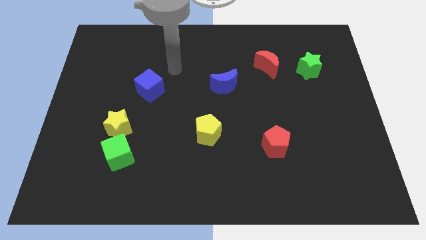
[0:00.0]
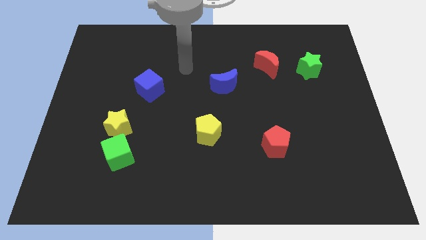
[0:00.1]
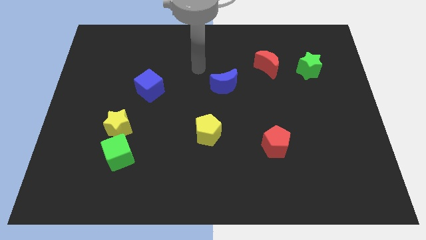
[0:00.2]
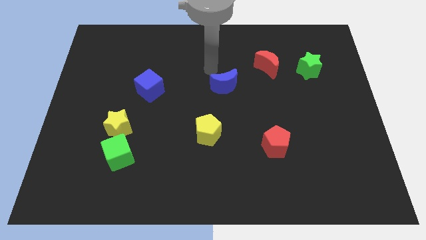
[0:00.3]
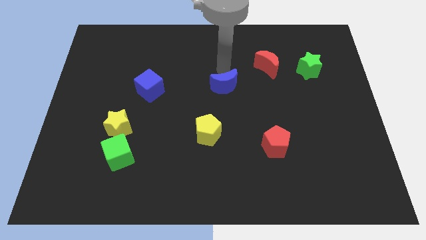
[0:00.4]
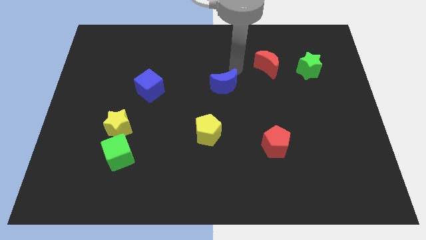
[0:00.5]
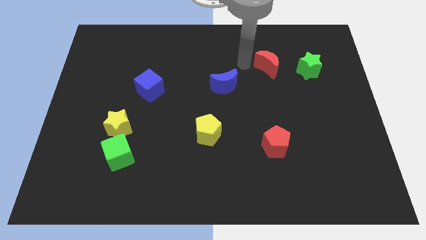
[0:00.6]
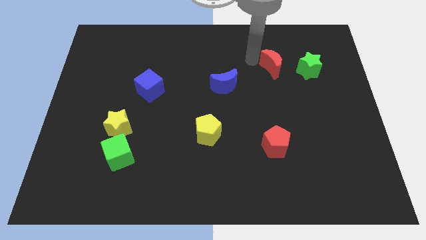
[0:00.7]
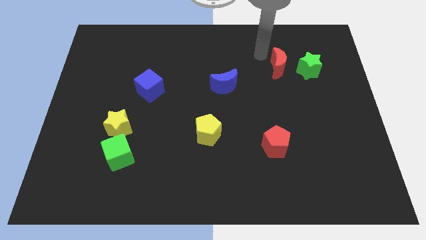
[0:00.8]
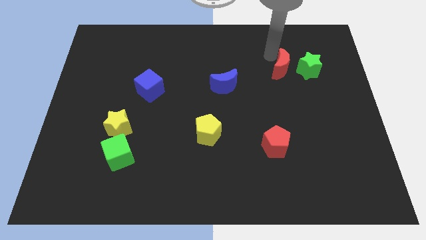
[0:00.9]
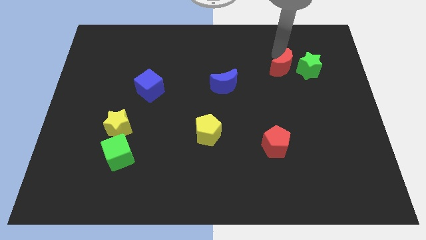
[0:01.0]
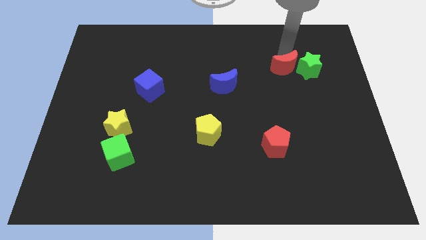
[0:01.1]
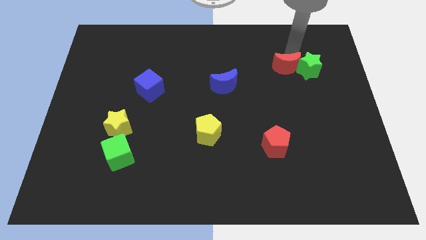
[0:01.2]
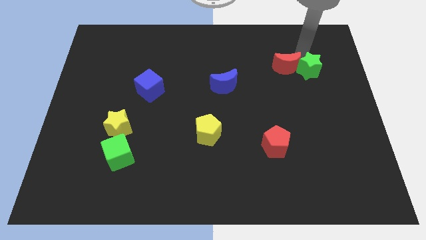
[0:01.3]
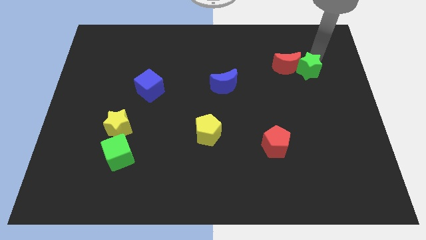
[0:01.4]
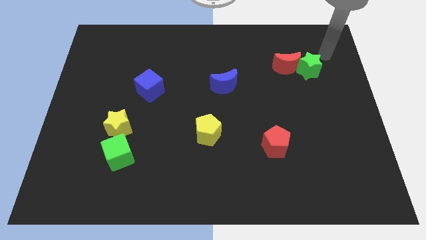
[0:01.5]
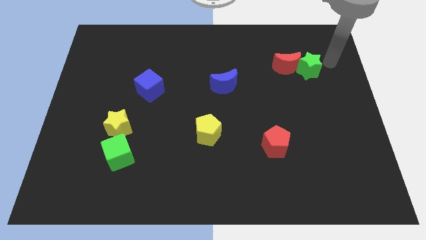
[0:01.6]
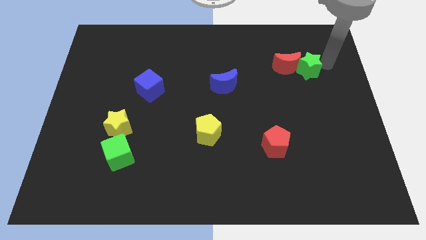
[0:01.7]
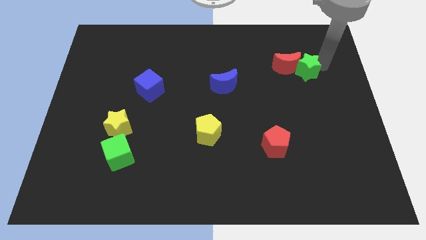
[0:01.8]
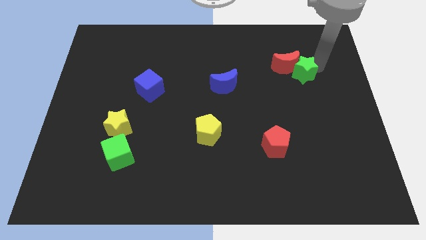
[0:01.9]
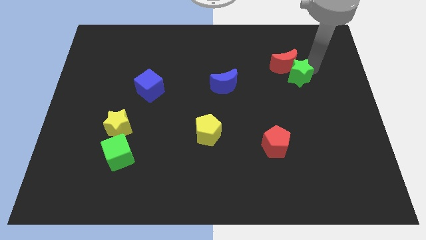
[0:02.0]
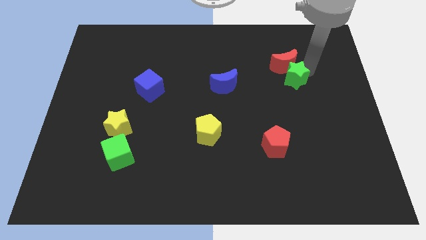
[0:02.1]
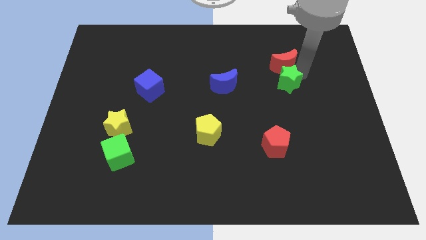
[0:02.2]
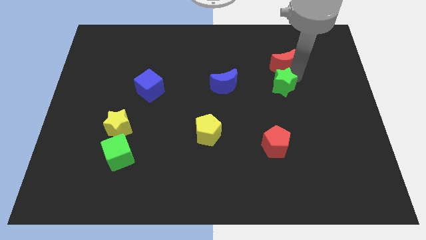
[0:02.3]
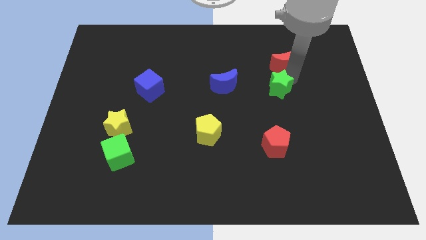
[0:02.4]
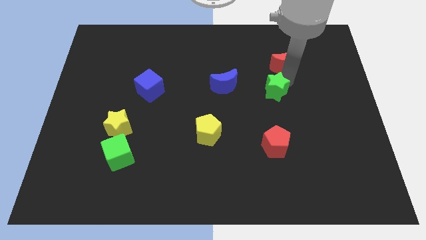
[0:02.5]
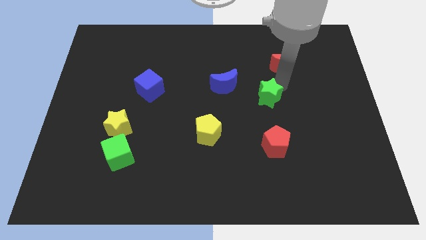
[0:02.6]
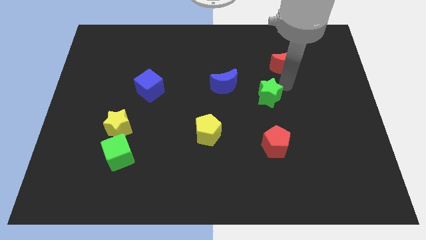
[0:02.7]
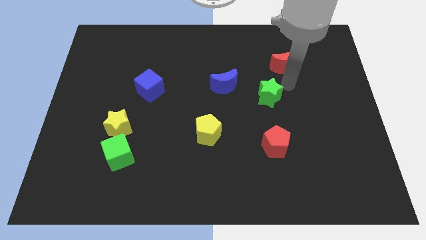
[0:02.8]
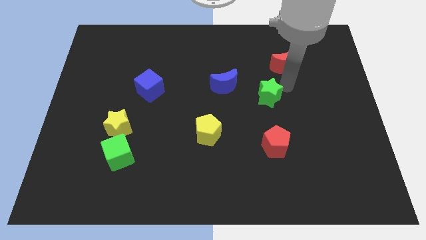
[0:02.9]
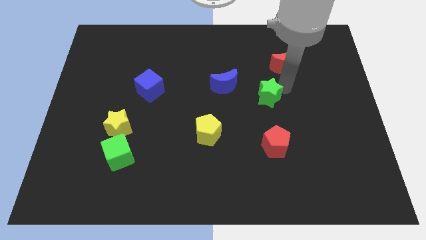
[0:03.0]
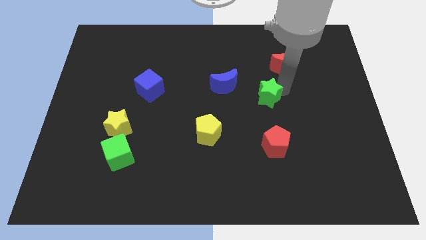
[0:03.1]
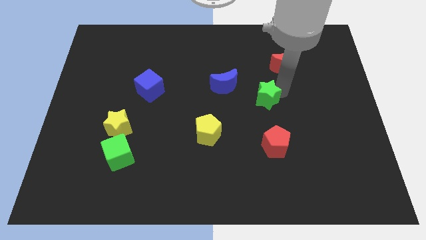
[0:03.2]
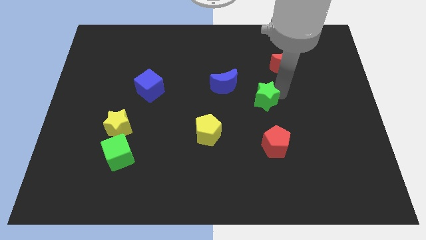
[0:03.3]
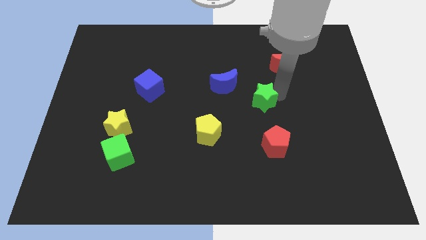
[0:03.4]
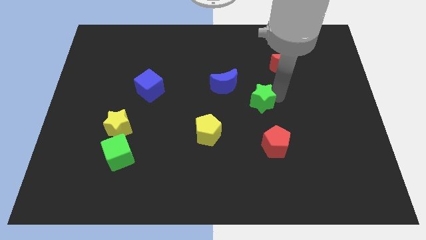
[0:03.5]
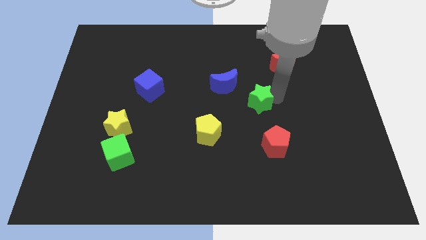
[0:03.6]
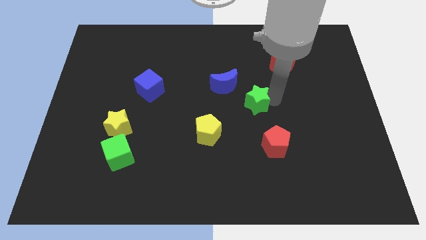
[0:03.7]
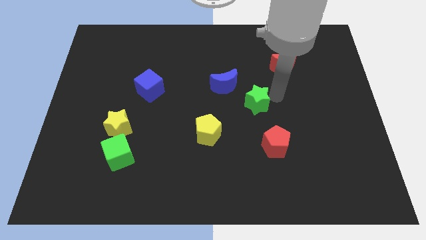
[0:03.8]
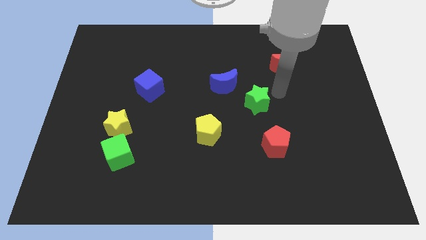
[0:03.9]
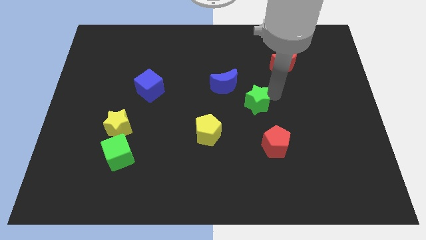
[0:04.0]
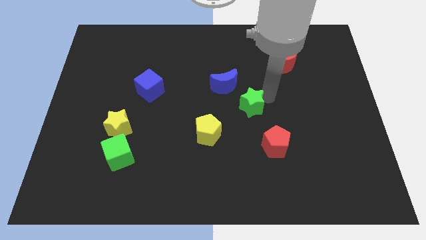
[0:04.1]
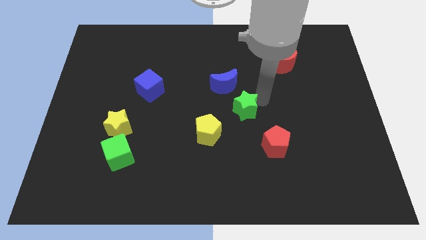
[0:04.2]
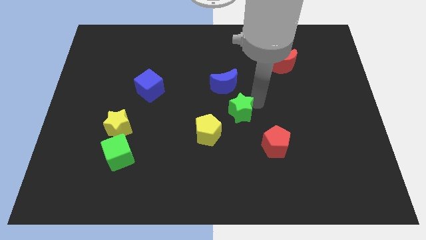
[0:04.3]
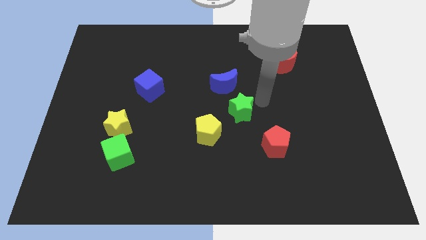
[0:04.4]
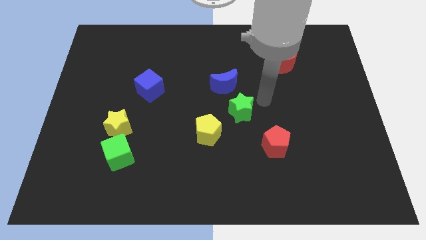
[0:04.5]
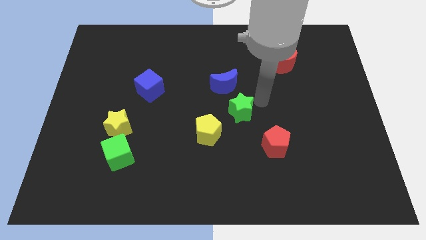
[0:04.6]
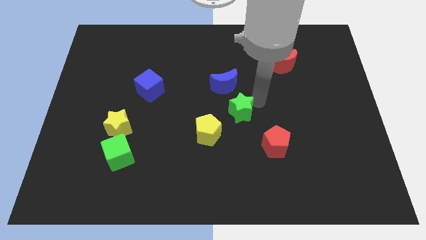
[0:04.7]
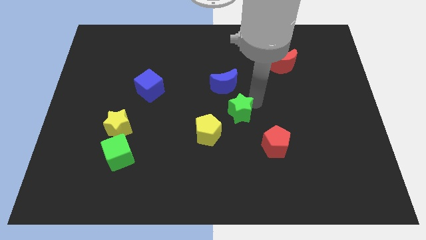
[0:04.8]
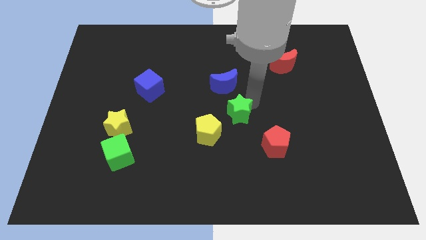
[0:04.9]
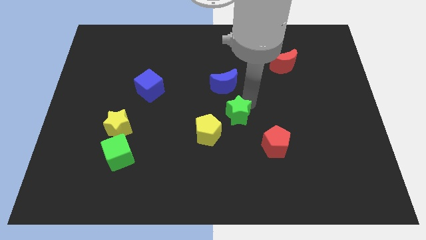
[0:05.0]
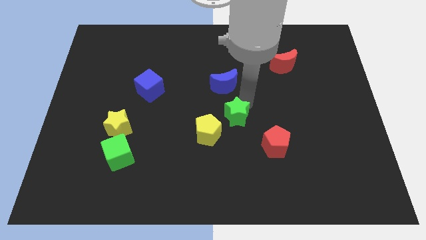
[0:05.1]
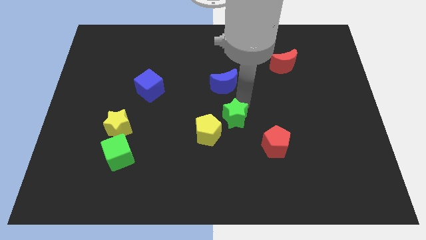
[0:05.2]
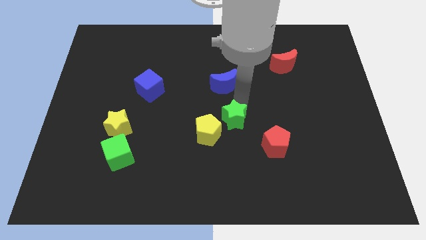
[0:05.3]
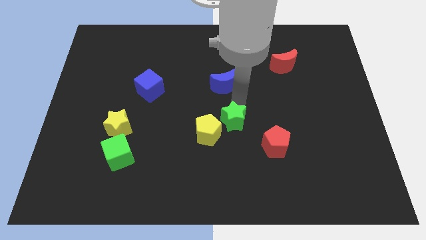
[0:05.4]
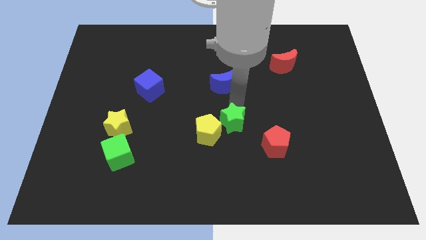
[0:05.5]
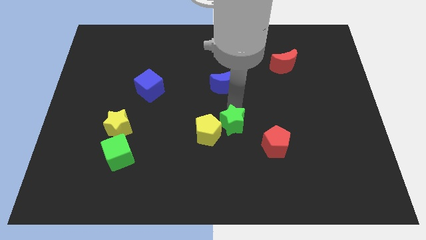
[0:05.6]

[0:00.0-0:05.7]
slide the green star towards the yellow pentagon

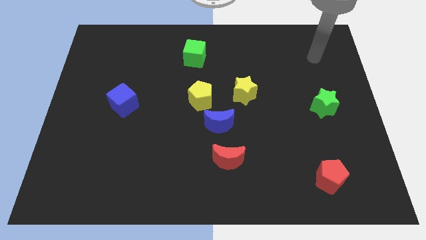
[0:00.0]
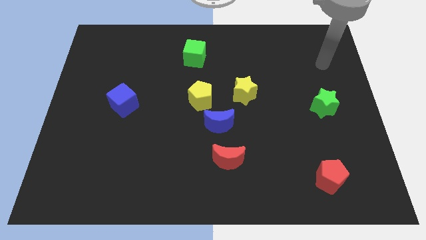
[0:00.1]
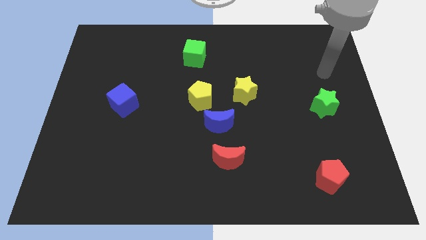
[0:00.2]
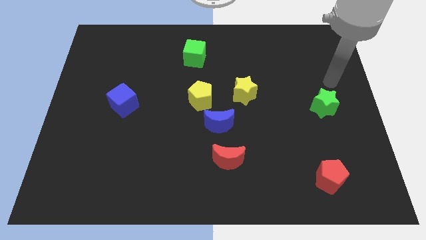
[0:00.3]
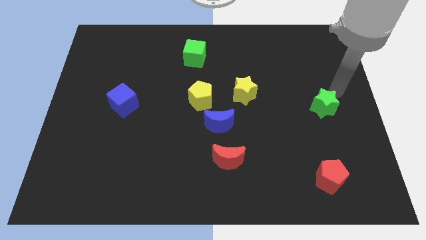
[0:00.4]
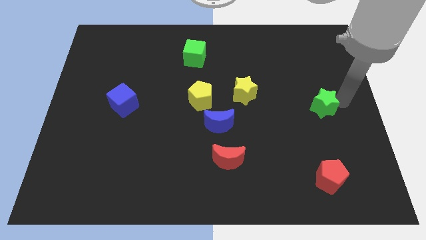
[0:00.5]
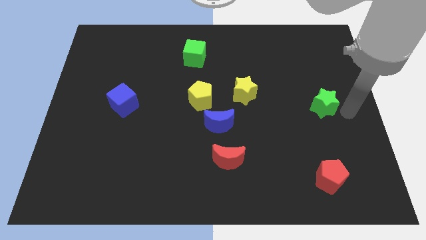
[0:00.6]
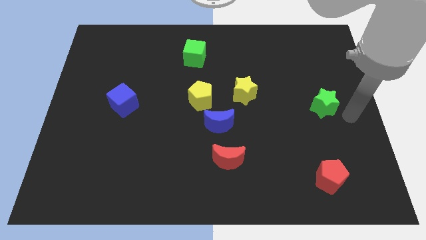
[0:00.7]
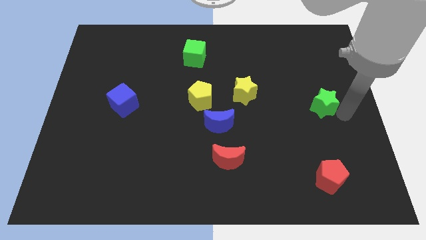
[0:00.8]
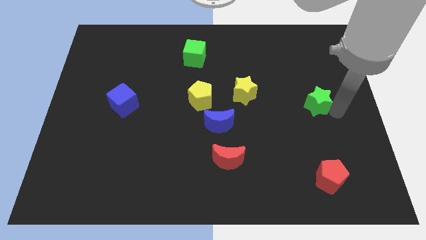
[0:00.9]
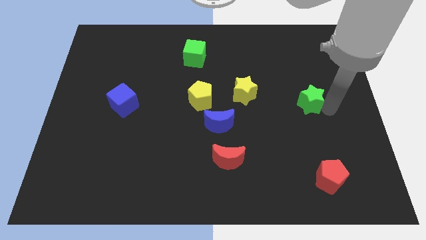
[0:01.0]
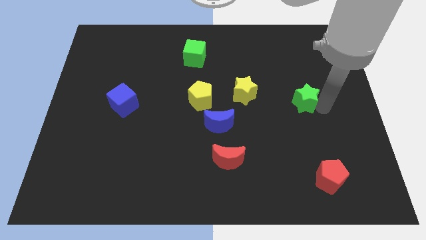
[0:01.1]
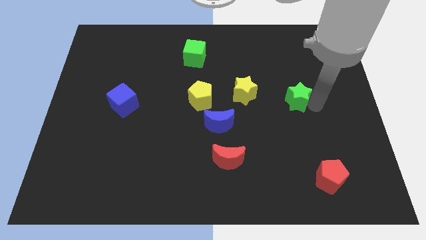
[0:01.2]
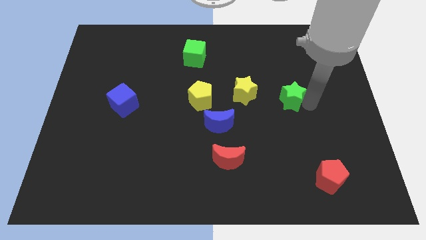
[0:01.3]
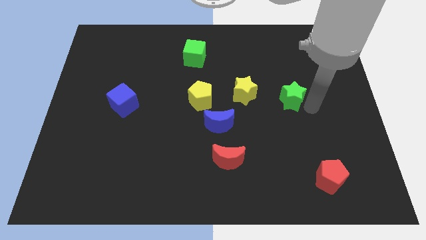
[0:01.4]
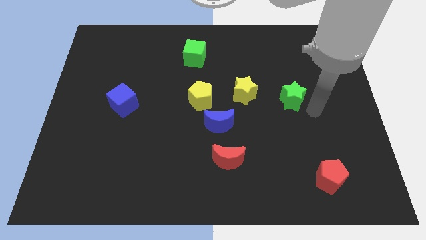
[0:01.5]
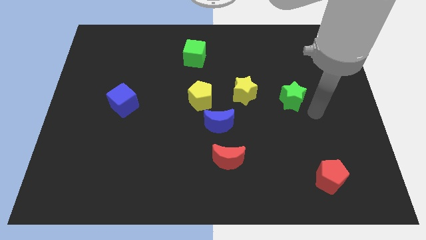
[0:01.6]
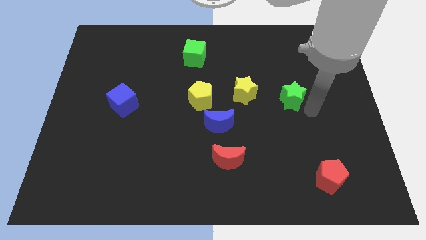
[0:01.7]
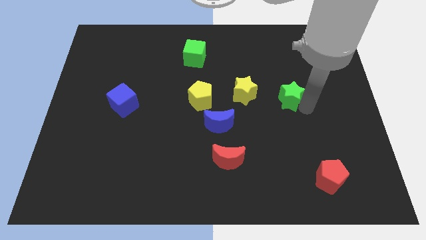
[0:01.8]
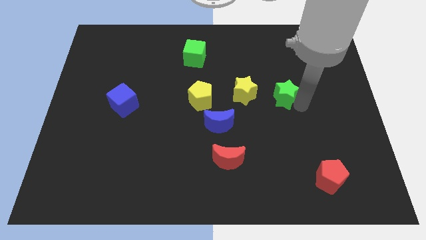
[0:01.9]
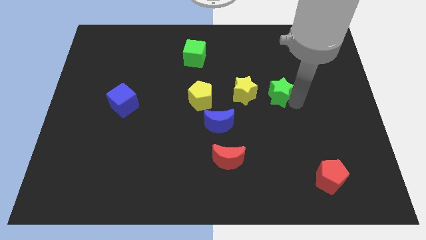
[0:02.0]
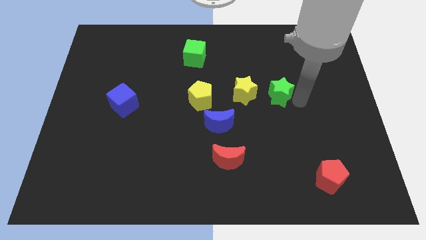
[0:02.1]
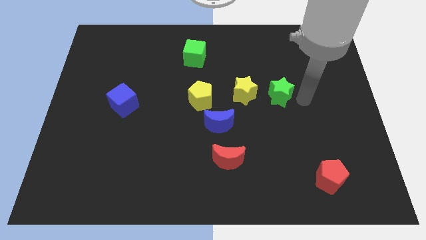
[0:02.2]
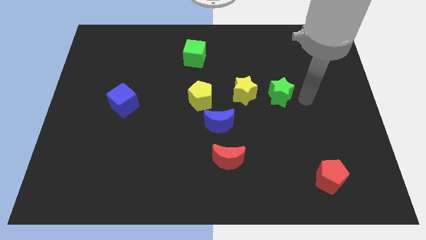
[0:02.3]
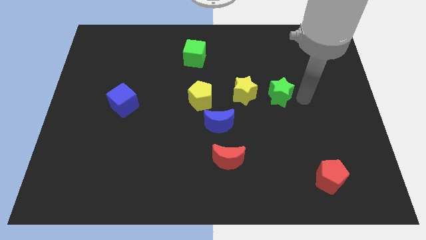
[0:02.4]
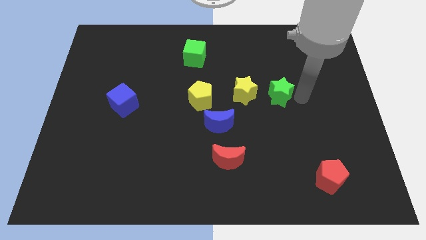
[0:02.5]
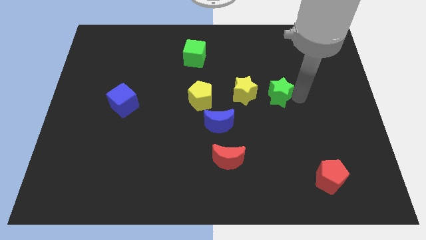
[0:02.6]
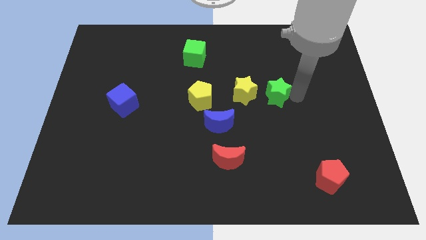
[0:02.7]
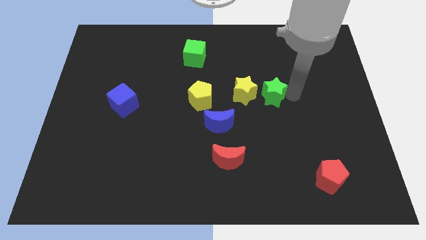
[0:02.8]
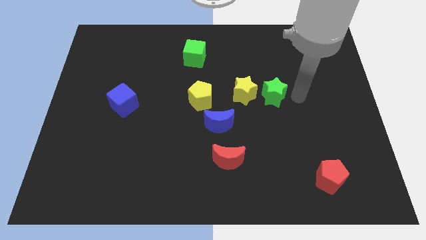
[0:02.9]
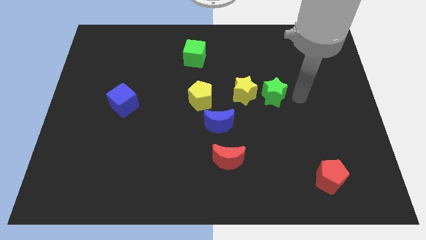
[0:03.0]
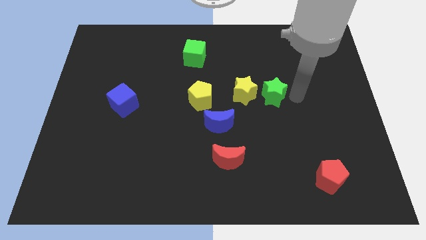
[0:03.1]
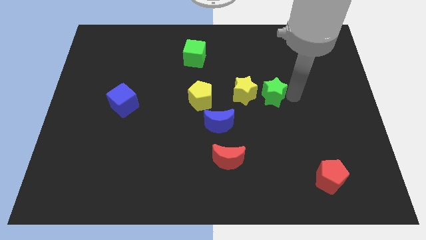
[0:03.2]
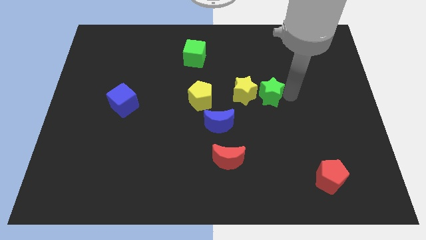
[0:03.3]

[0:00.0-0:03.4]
move the green star to the yellow star
